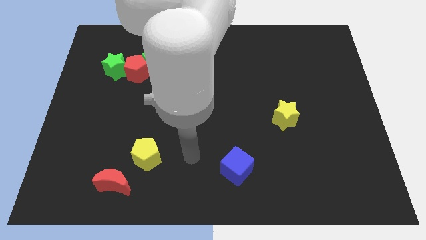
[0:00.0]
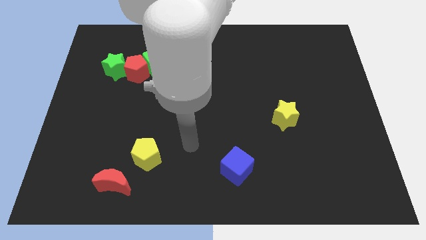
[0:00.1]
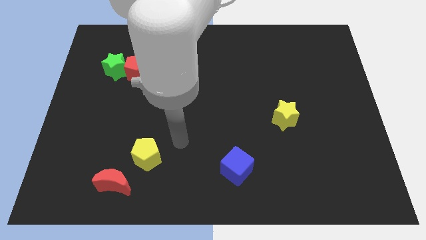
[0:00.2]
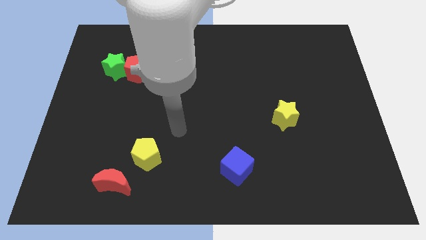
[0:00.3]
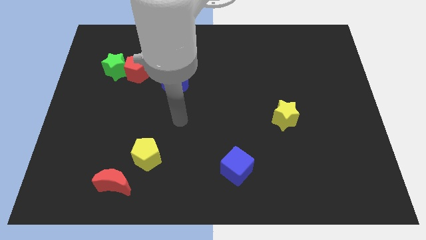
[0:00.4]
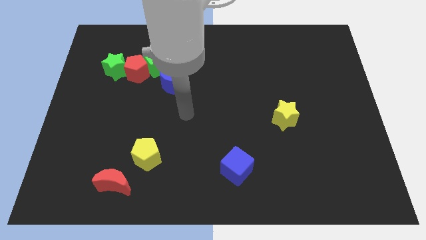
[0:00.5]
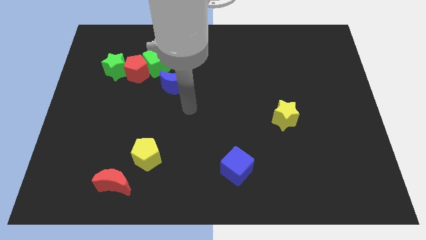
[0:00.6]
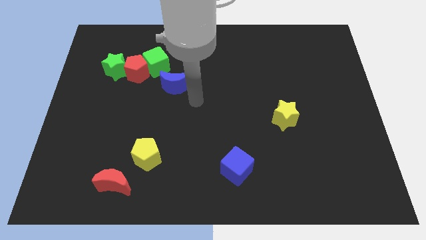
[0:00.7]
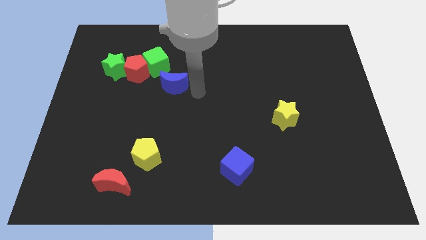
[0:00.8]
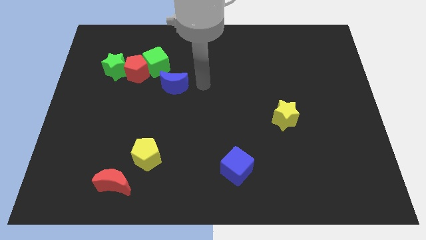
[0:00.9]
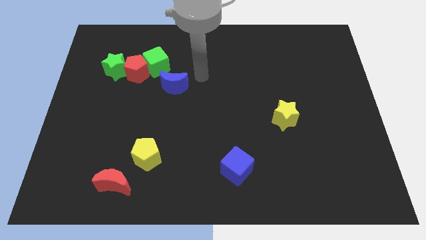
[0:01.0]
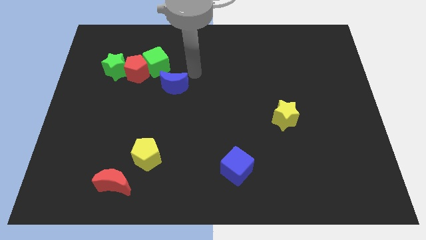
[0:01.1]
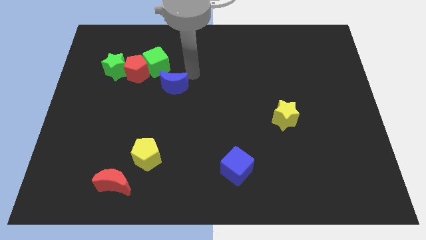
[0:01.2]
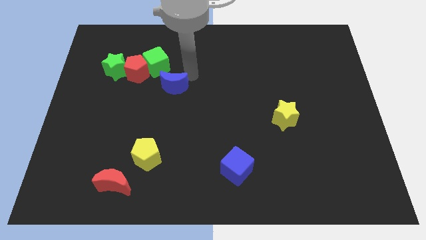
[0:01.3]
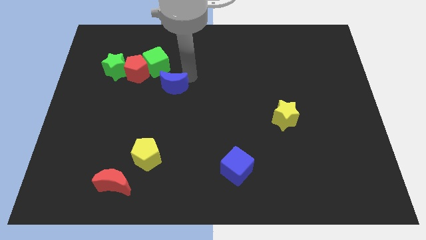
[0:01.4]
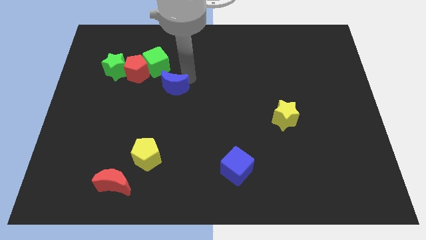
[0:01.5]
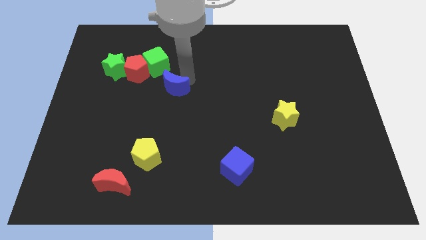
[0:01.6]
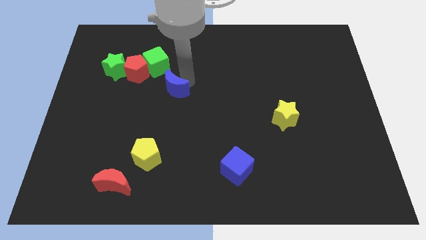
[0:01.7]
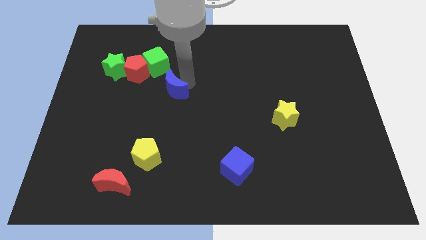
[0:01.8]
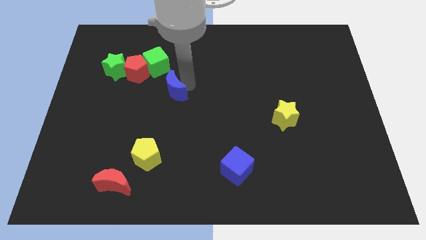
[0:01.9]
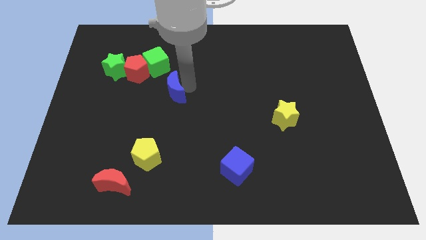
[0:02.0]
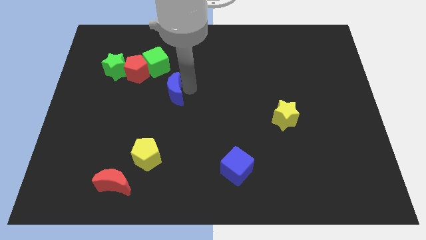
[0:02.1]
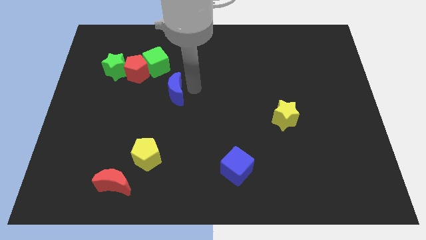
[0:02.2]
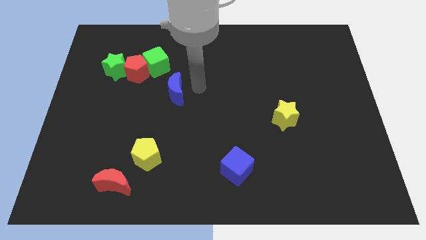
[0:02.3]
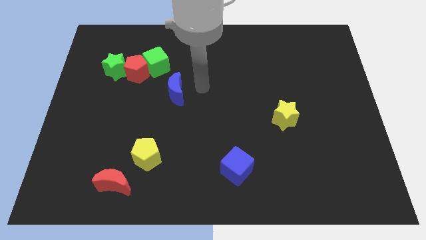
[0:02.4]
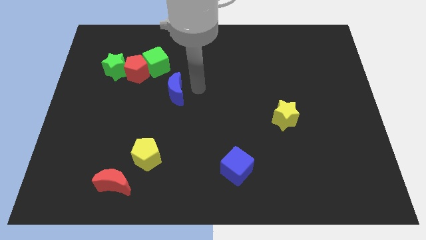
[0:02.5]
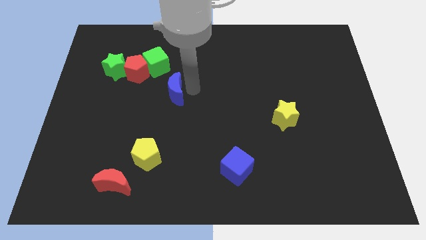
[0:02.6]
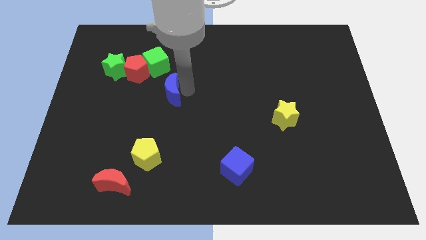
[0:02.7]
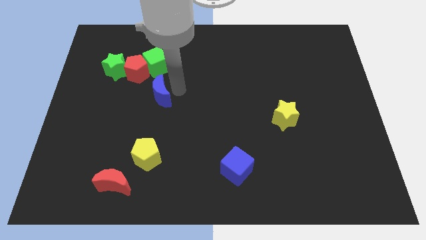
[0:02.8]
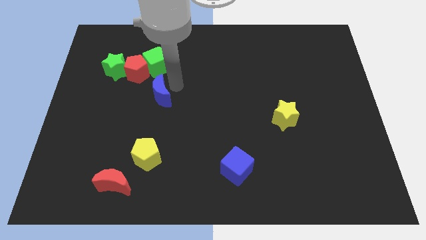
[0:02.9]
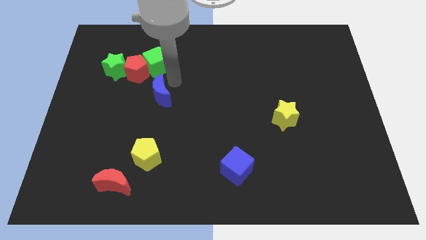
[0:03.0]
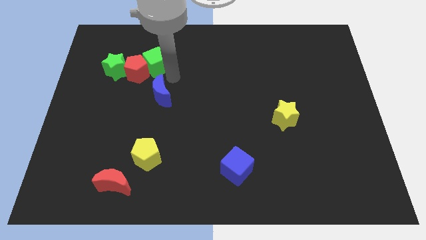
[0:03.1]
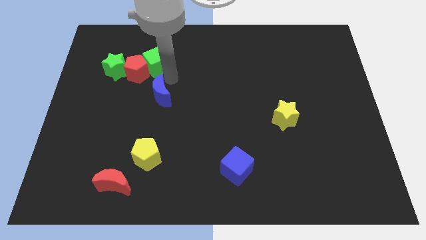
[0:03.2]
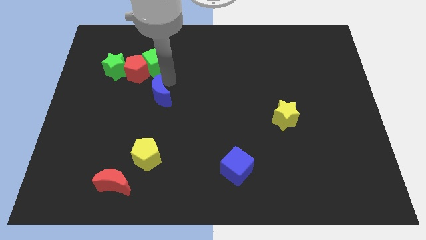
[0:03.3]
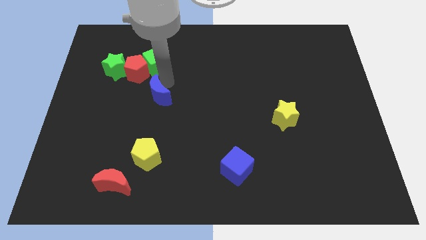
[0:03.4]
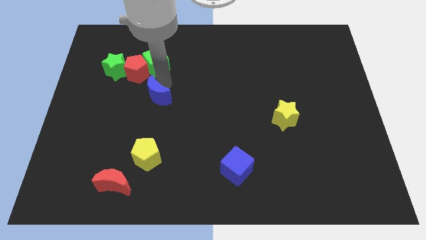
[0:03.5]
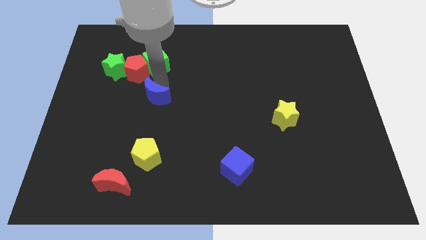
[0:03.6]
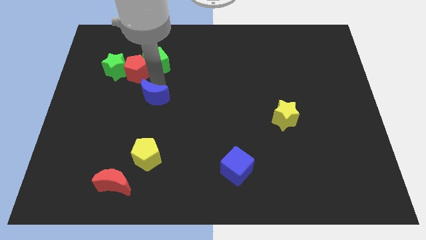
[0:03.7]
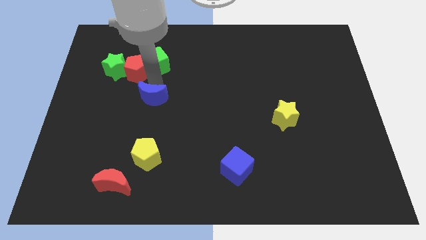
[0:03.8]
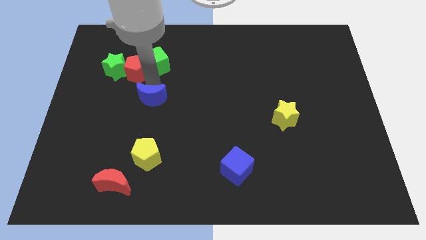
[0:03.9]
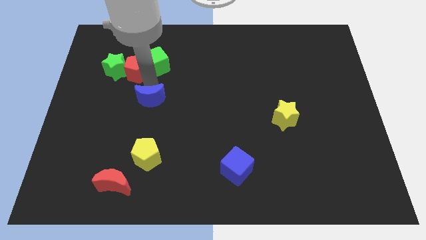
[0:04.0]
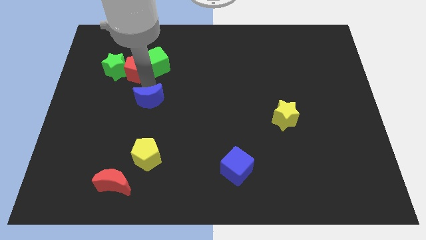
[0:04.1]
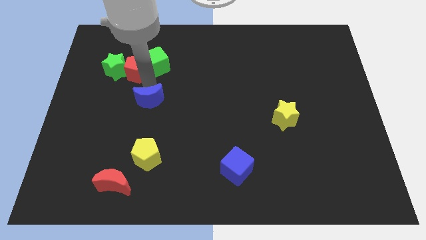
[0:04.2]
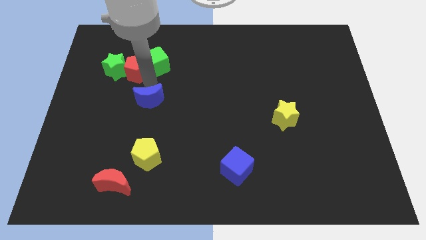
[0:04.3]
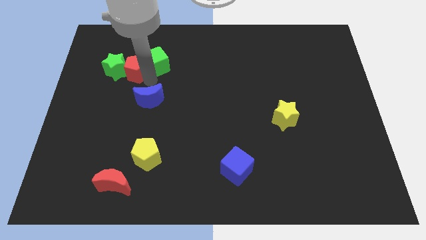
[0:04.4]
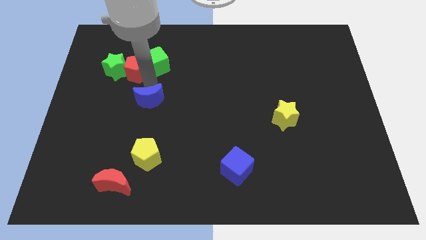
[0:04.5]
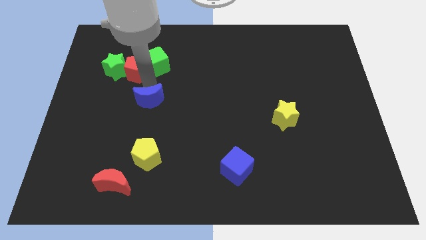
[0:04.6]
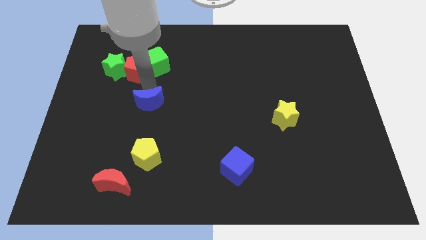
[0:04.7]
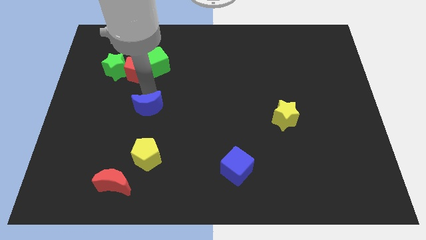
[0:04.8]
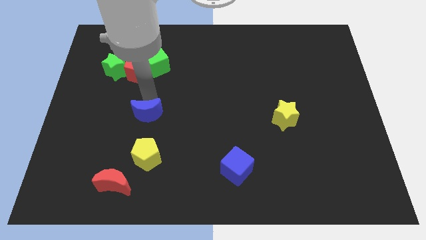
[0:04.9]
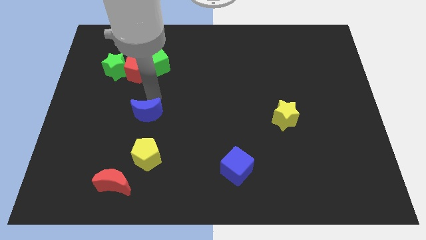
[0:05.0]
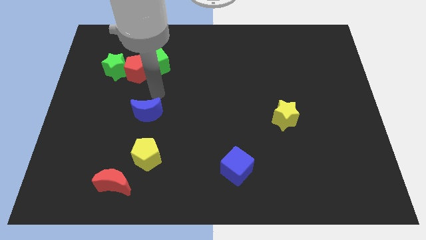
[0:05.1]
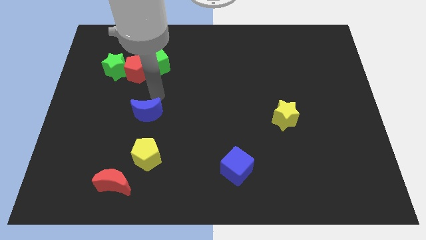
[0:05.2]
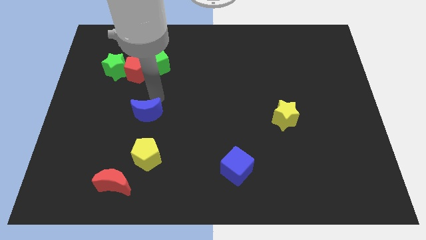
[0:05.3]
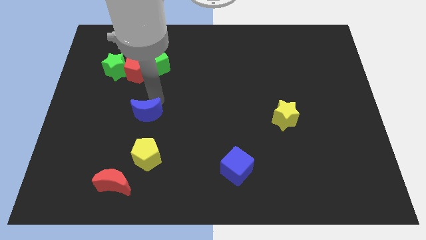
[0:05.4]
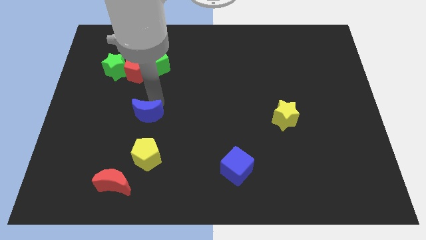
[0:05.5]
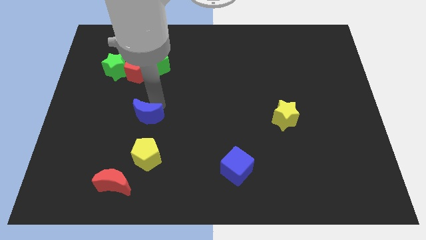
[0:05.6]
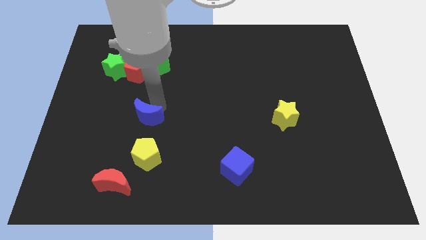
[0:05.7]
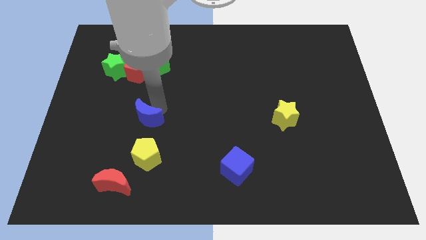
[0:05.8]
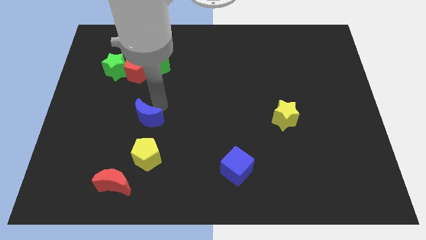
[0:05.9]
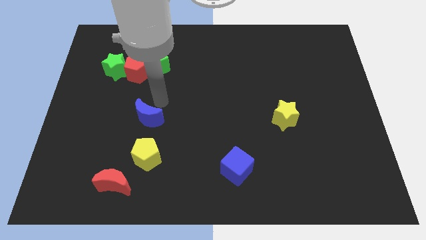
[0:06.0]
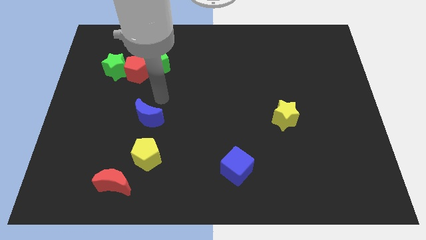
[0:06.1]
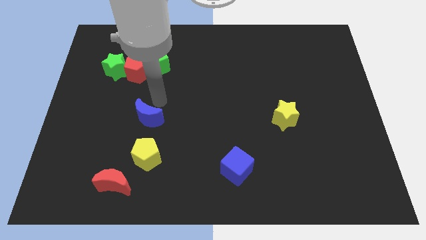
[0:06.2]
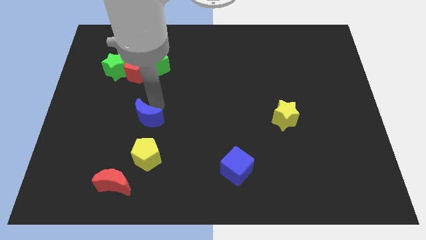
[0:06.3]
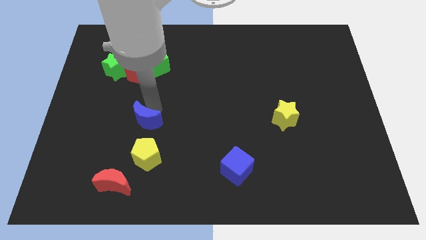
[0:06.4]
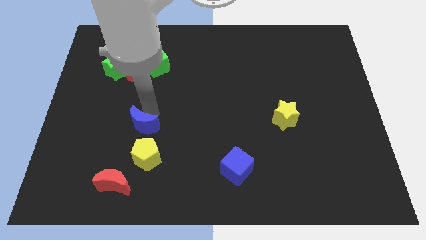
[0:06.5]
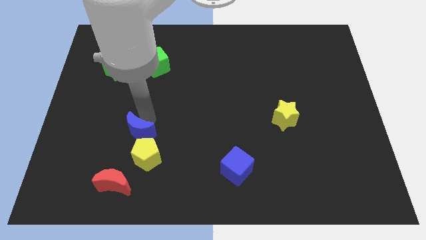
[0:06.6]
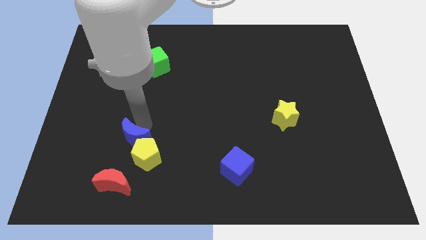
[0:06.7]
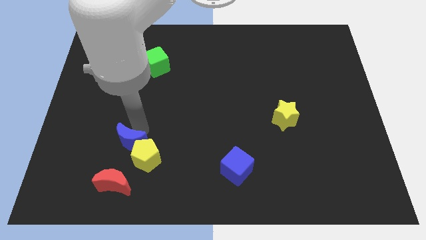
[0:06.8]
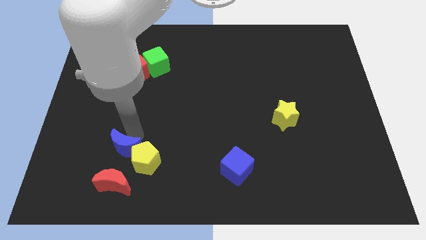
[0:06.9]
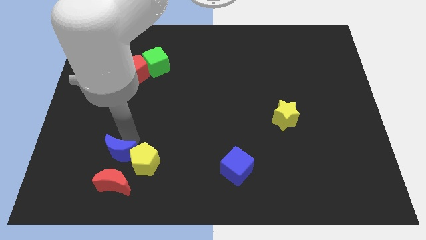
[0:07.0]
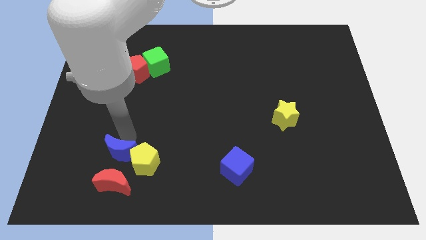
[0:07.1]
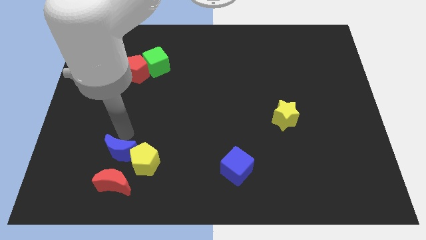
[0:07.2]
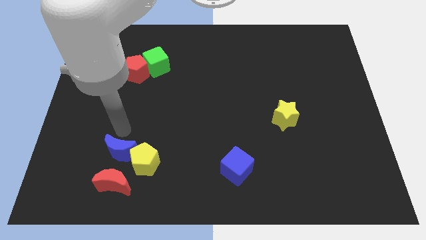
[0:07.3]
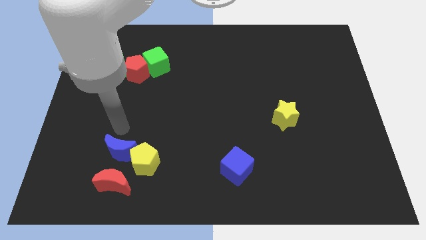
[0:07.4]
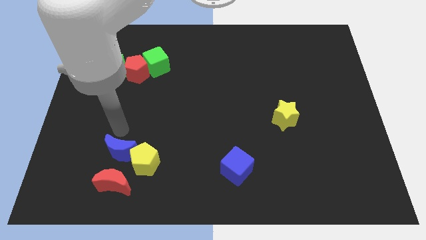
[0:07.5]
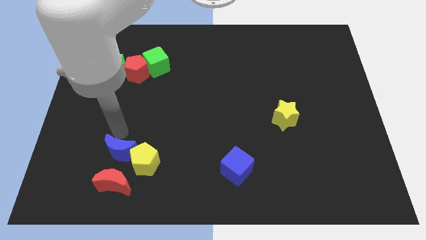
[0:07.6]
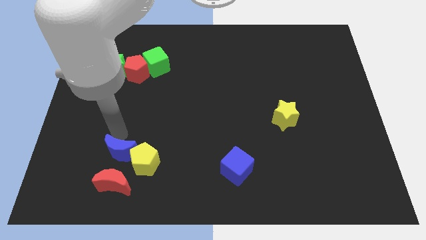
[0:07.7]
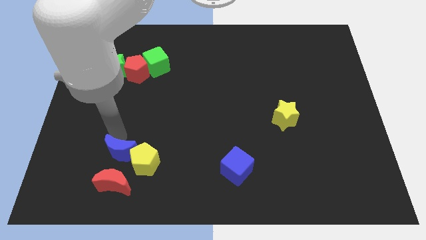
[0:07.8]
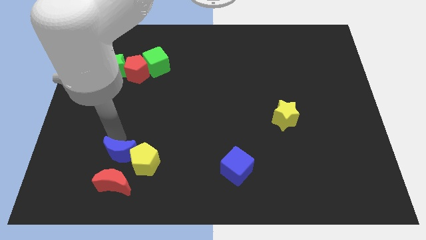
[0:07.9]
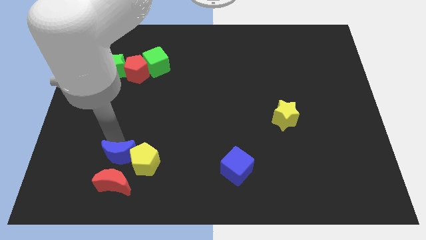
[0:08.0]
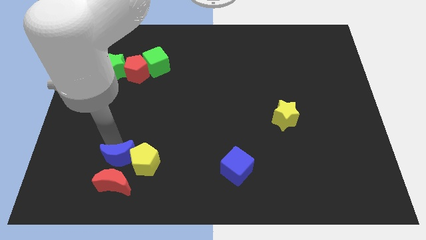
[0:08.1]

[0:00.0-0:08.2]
move the blue moon next to the red moon
